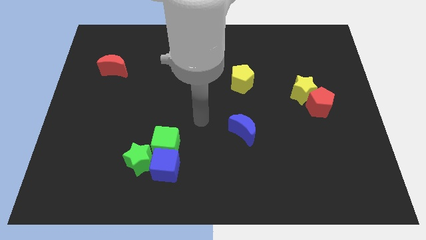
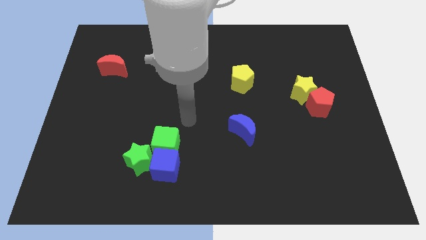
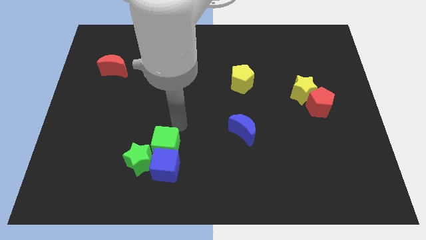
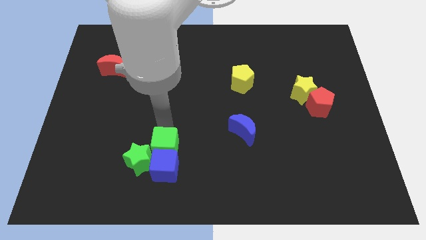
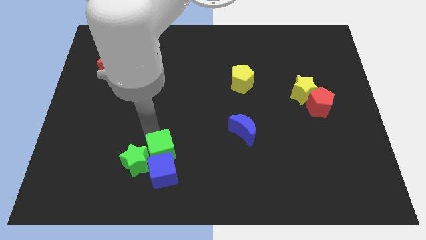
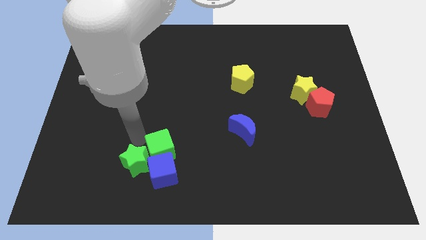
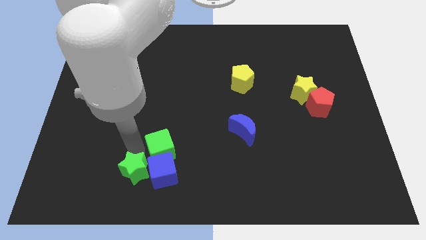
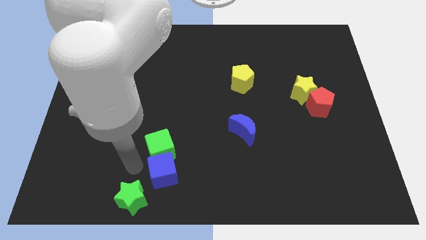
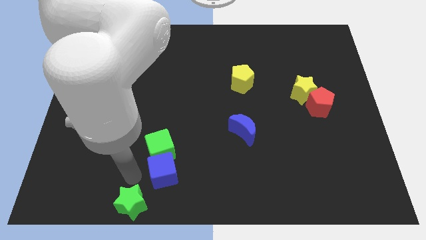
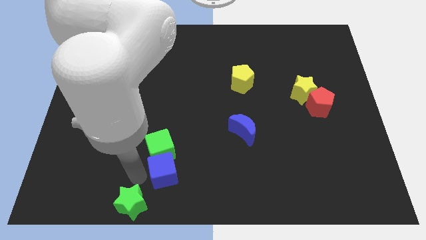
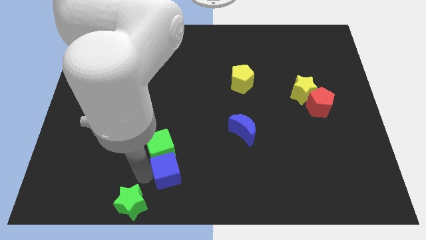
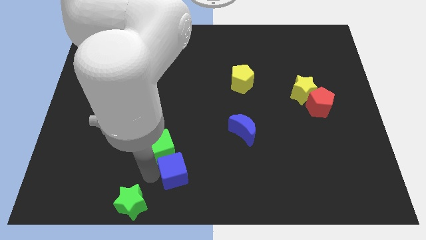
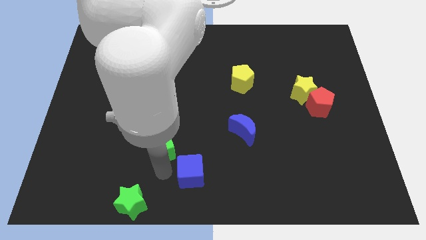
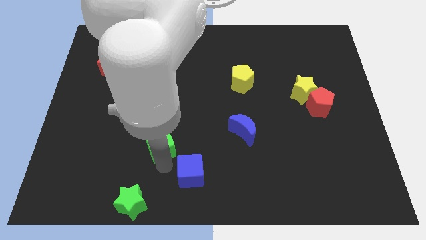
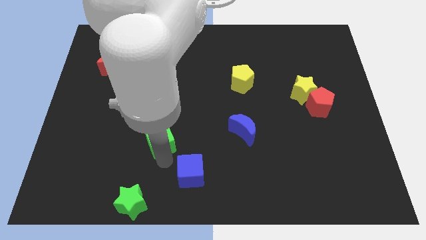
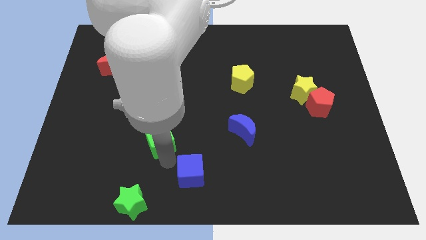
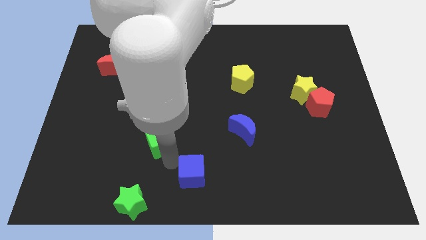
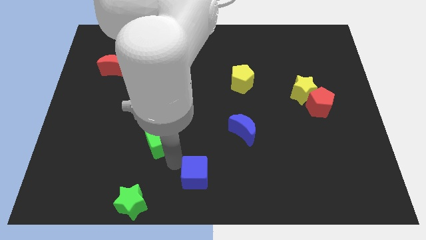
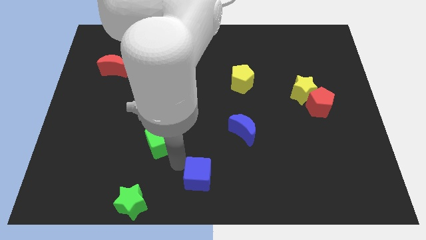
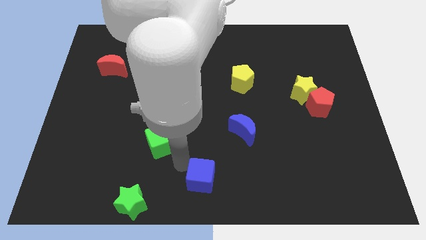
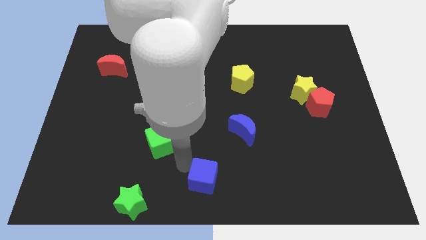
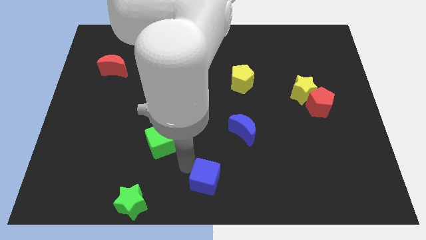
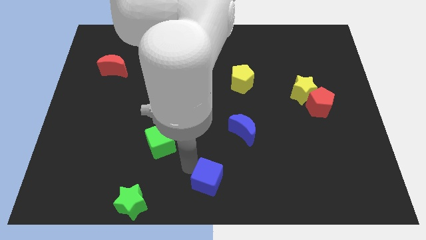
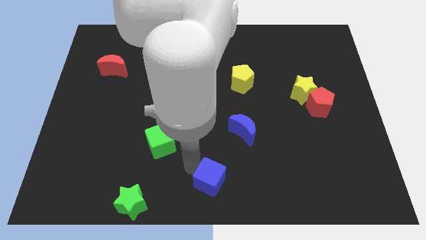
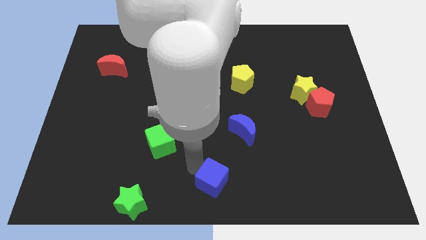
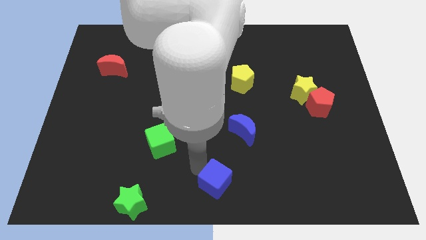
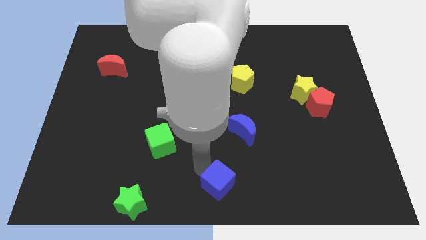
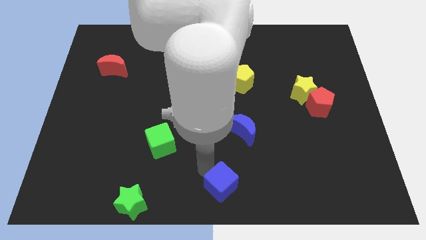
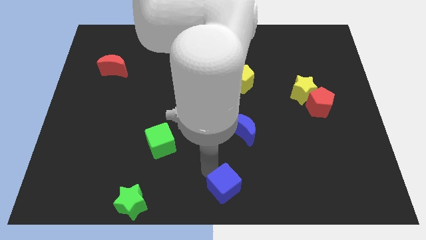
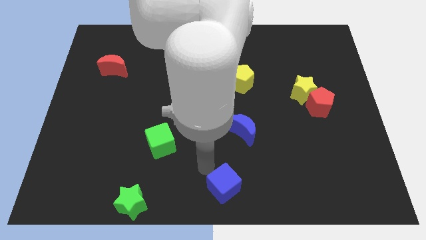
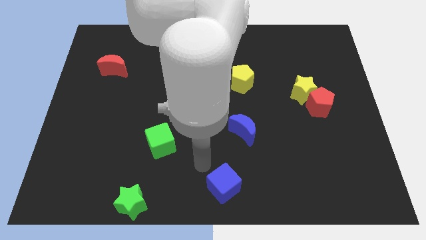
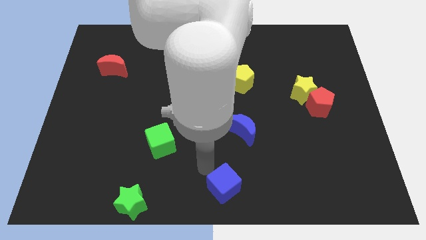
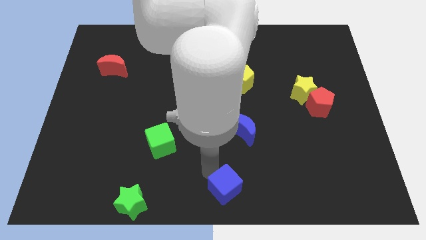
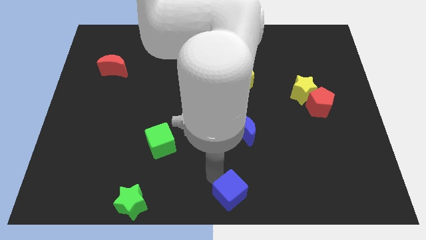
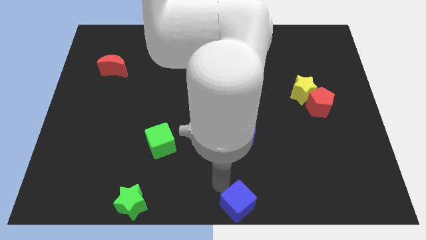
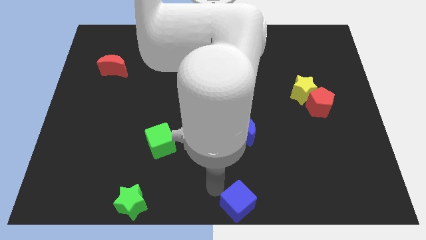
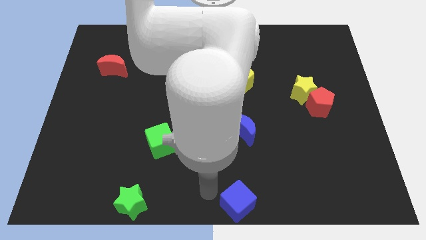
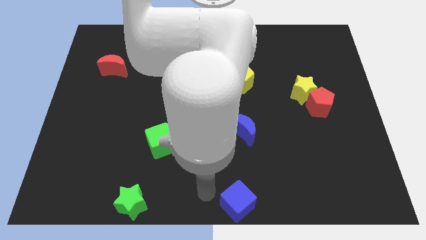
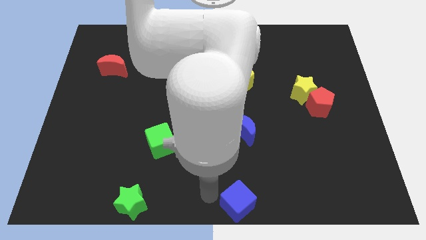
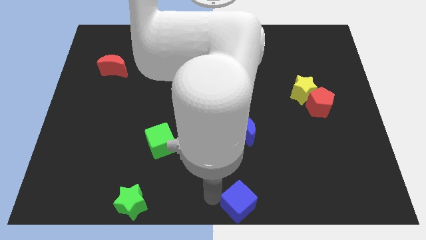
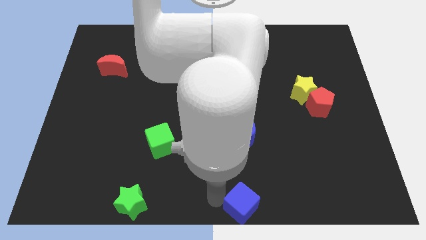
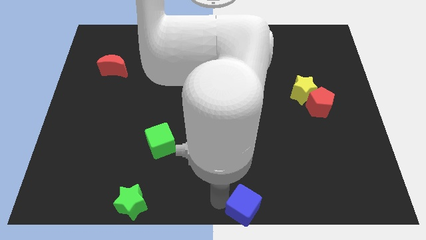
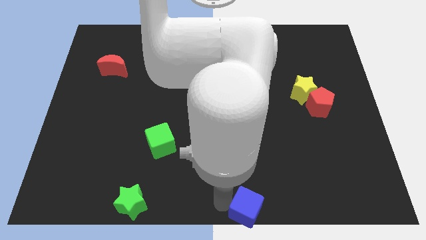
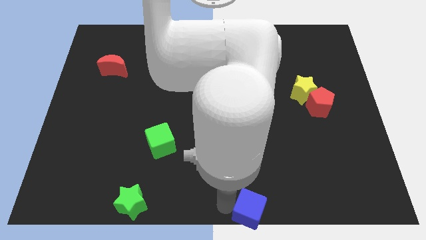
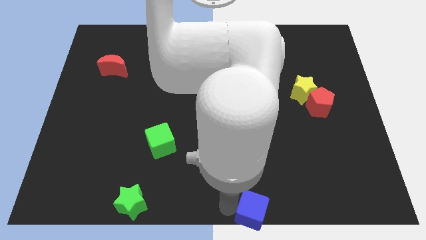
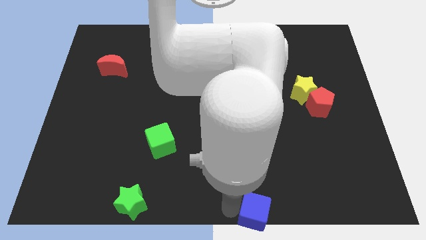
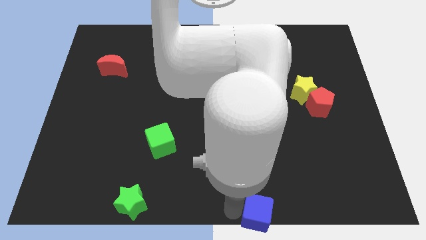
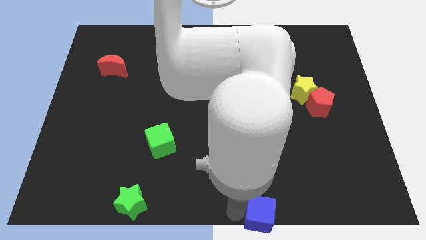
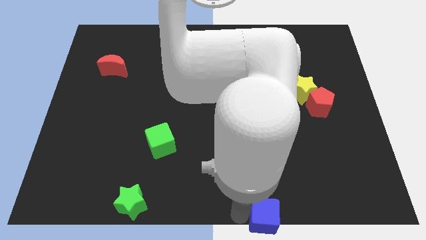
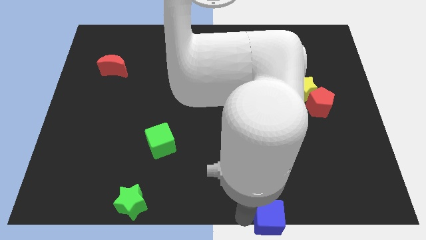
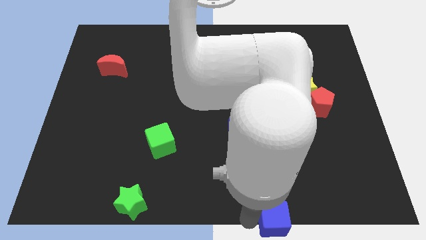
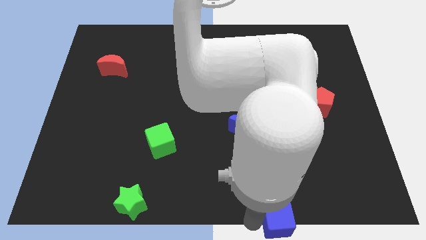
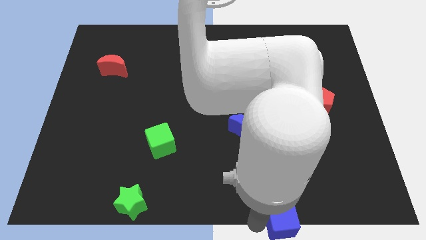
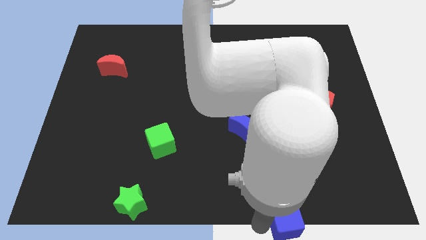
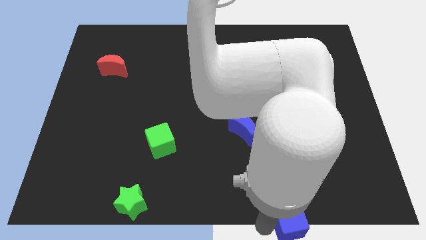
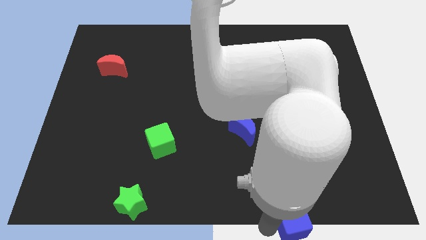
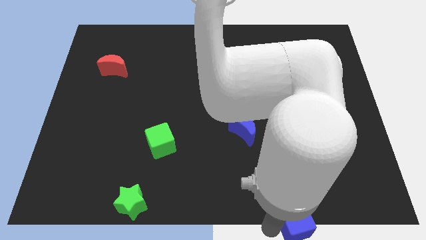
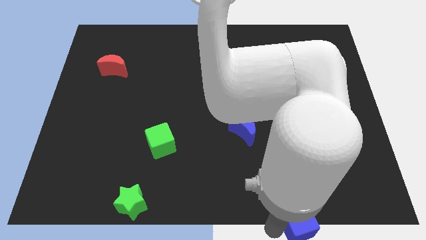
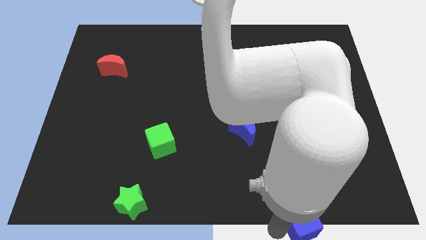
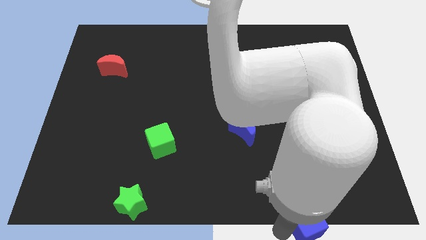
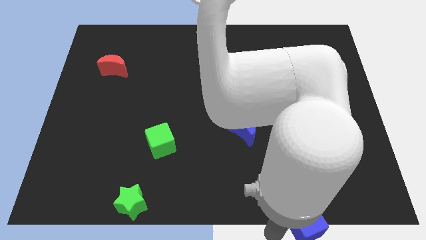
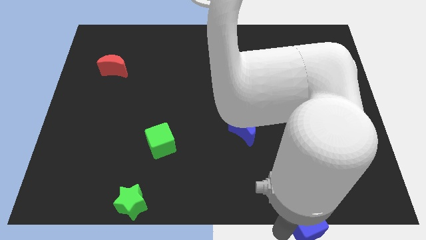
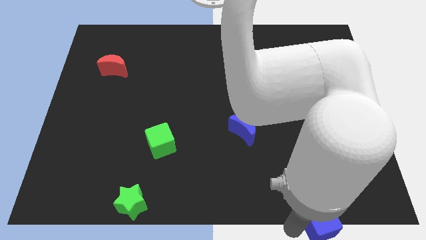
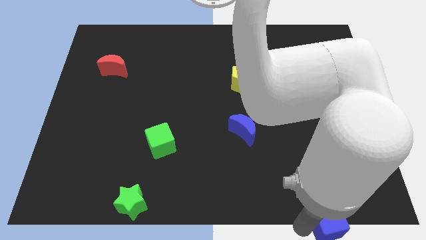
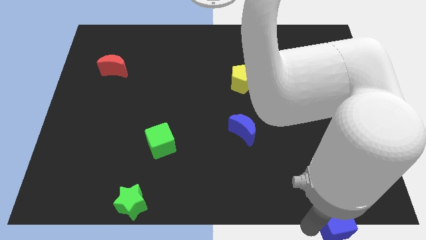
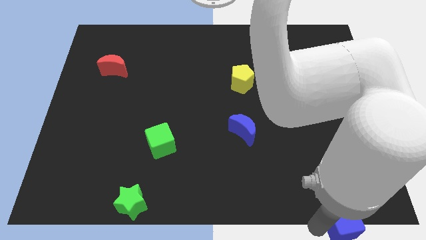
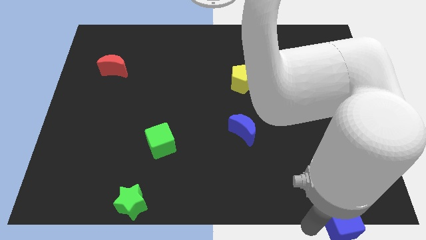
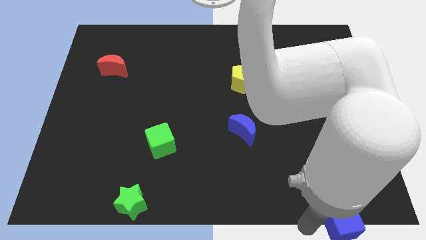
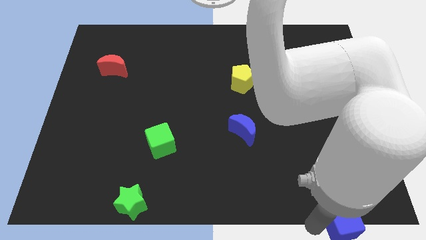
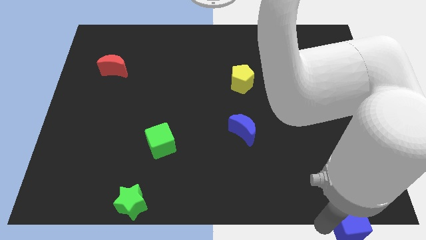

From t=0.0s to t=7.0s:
put the blue cube to the lower right corner
